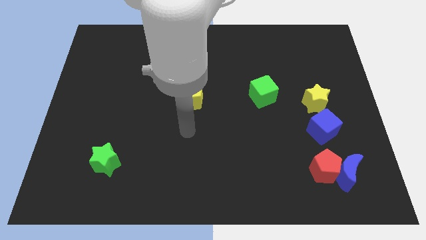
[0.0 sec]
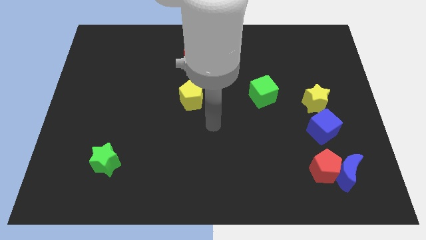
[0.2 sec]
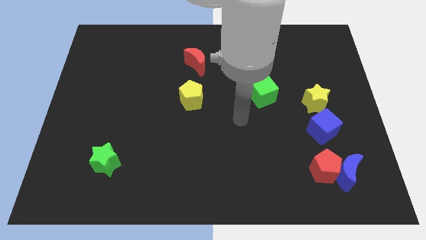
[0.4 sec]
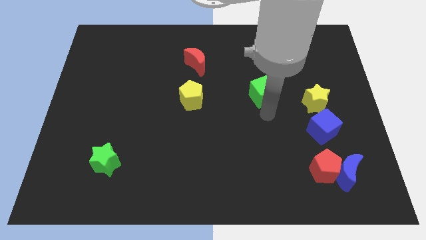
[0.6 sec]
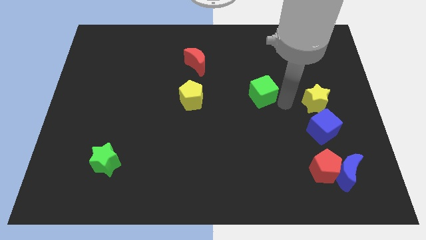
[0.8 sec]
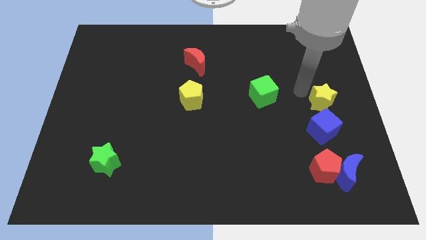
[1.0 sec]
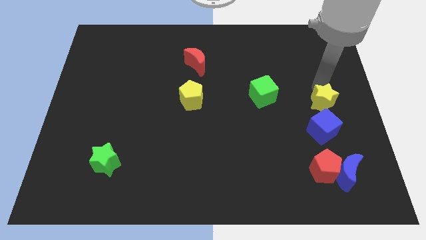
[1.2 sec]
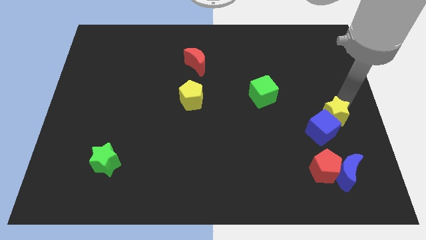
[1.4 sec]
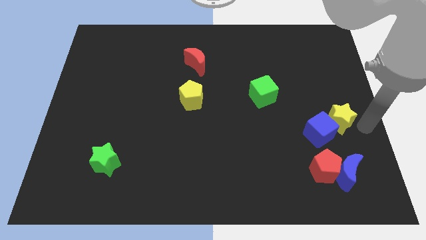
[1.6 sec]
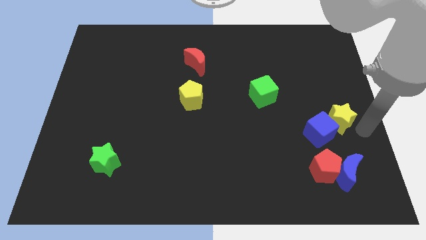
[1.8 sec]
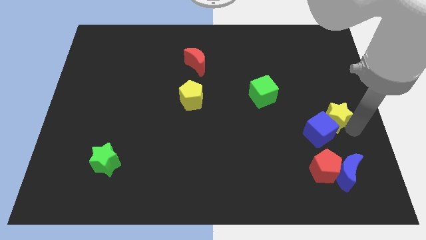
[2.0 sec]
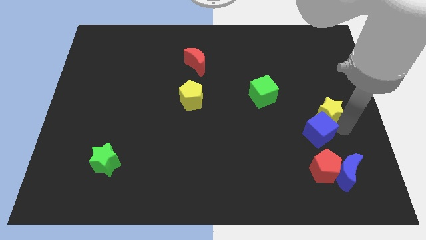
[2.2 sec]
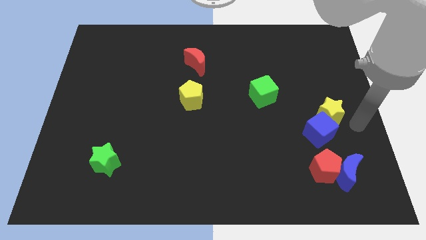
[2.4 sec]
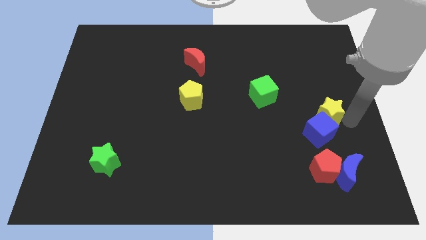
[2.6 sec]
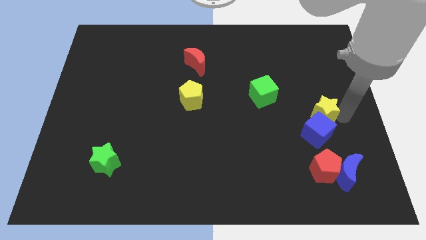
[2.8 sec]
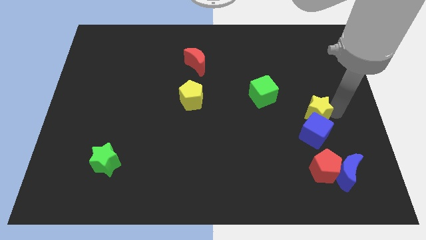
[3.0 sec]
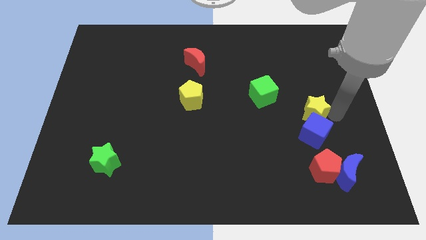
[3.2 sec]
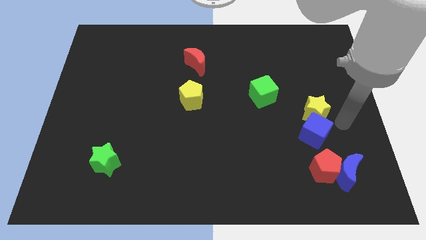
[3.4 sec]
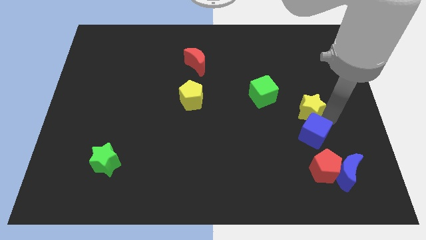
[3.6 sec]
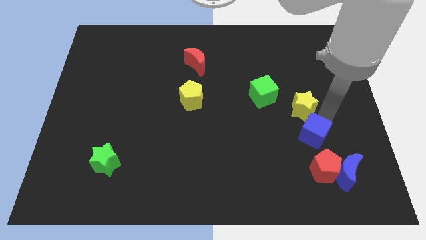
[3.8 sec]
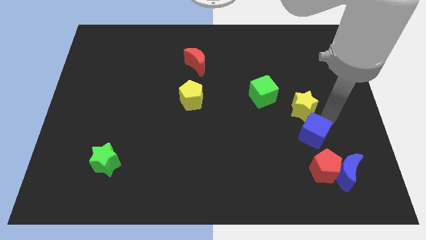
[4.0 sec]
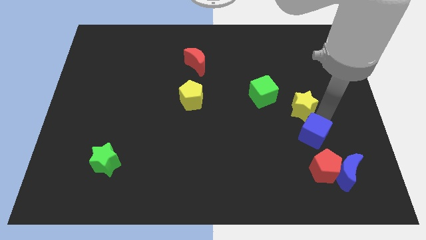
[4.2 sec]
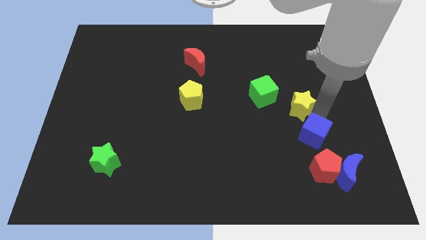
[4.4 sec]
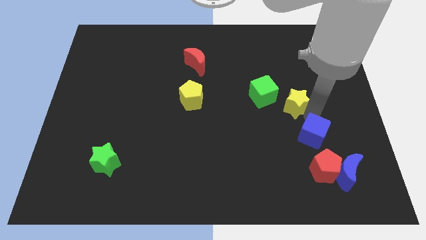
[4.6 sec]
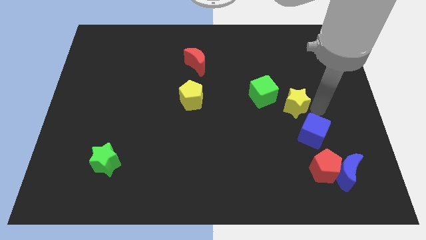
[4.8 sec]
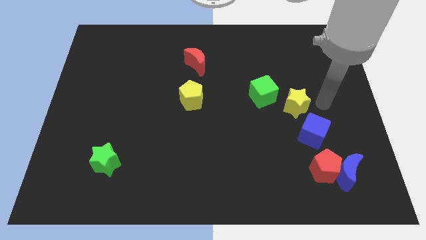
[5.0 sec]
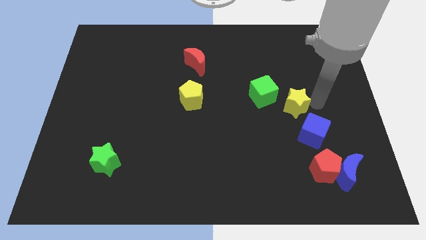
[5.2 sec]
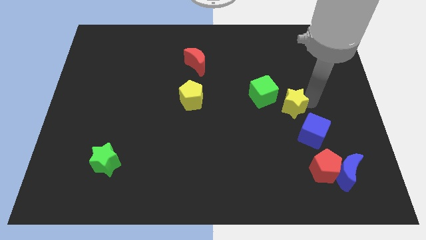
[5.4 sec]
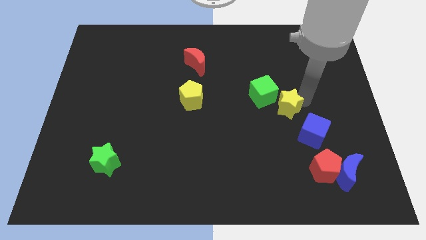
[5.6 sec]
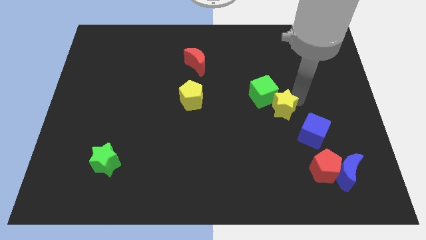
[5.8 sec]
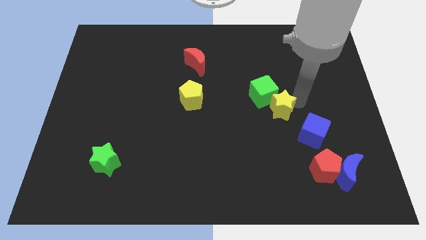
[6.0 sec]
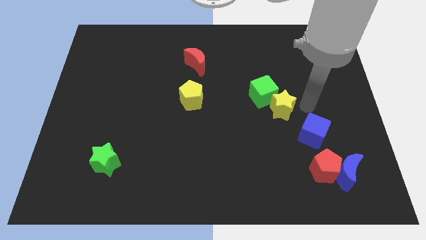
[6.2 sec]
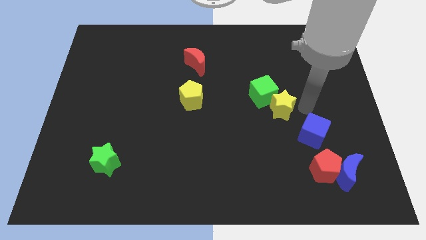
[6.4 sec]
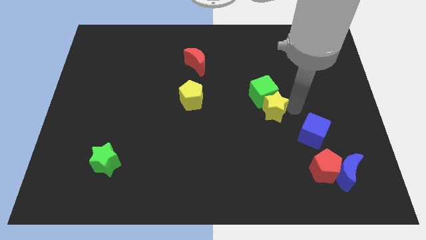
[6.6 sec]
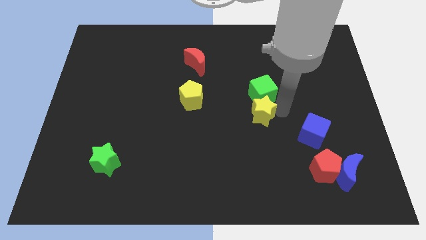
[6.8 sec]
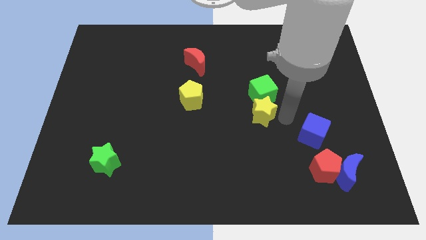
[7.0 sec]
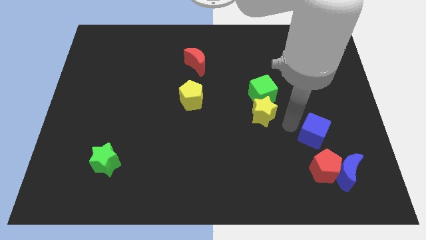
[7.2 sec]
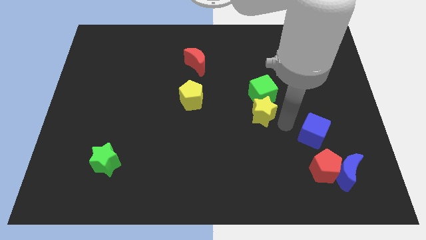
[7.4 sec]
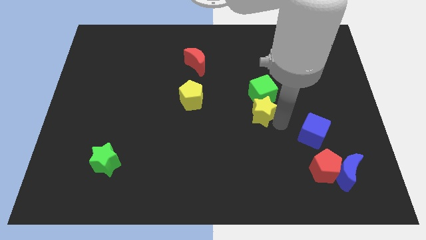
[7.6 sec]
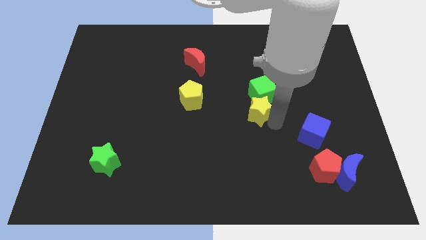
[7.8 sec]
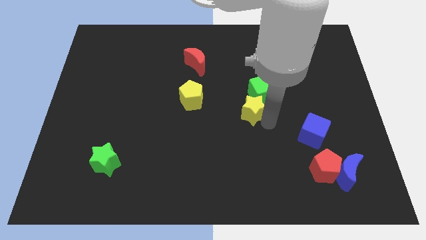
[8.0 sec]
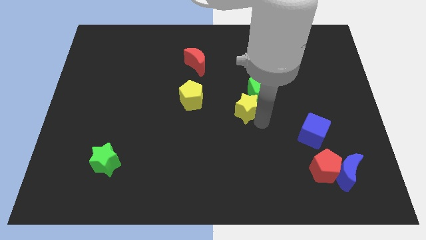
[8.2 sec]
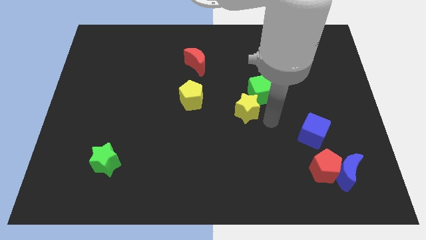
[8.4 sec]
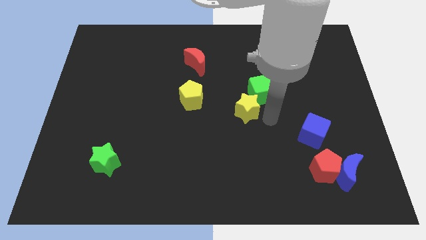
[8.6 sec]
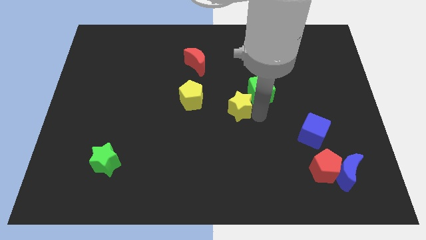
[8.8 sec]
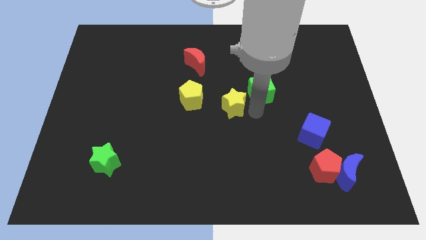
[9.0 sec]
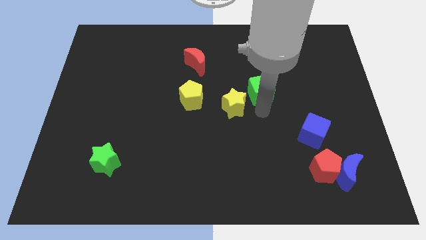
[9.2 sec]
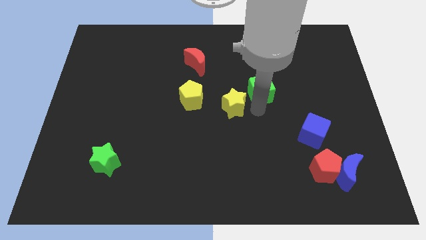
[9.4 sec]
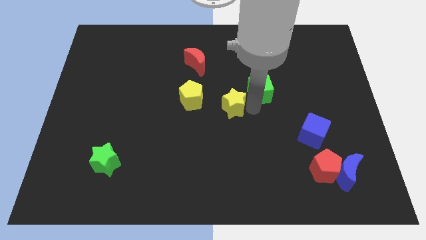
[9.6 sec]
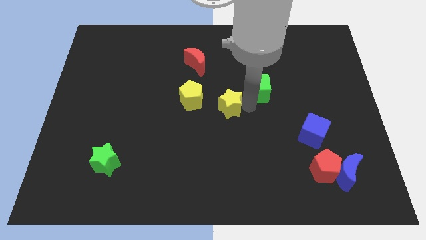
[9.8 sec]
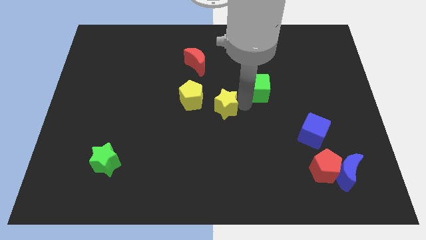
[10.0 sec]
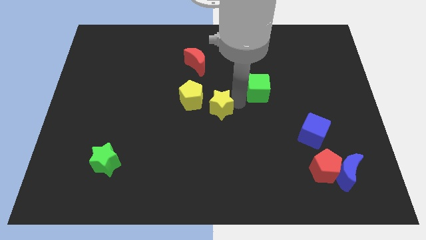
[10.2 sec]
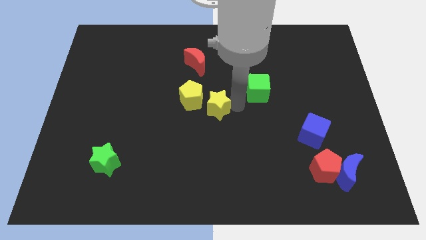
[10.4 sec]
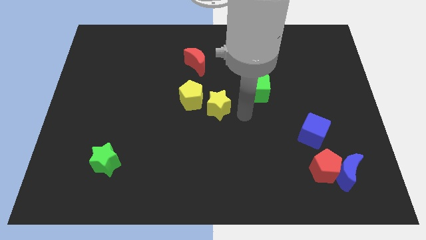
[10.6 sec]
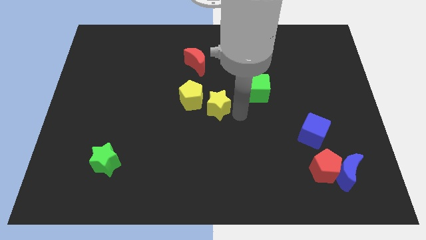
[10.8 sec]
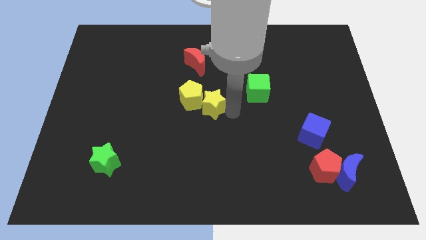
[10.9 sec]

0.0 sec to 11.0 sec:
slide the yellow star next to the yellow pentagon
